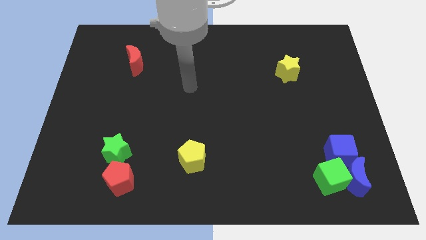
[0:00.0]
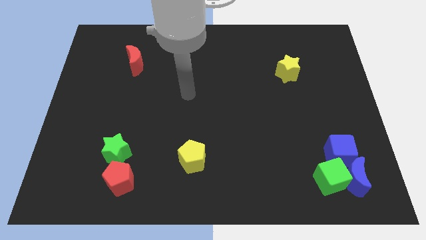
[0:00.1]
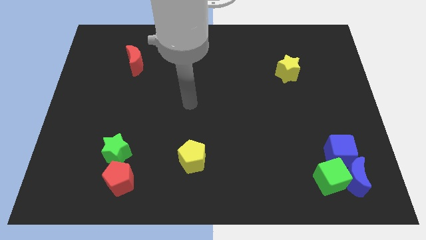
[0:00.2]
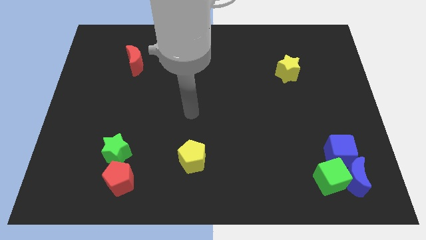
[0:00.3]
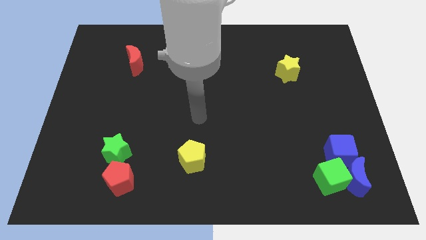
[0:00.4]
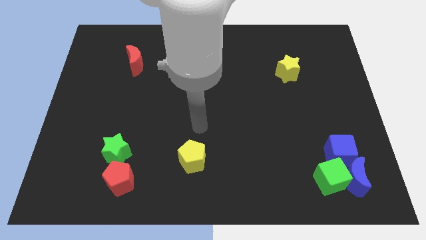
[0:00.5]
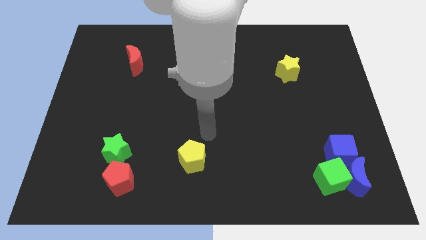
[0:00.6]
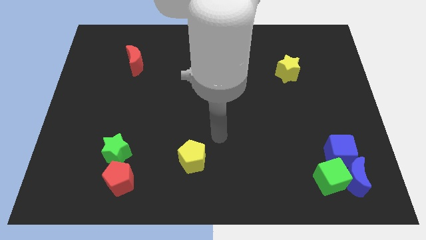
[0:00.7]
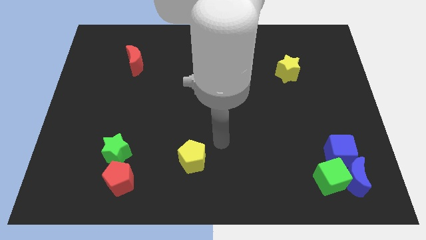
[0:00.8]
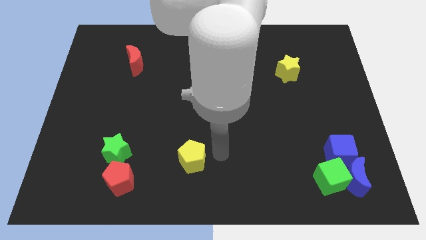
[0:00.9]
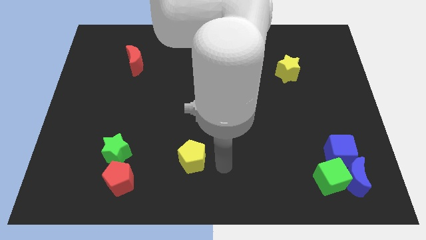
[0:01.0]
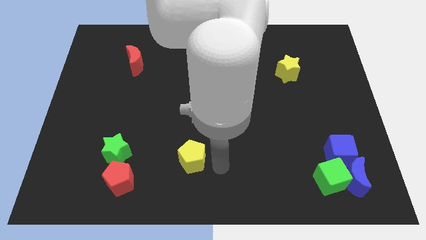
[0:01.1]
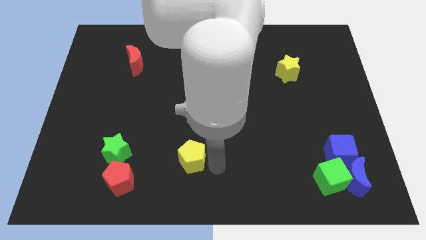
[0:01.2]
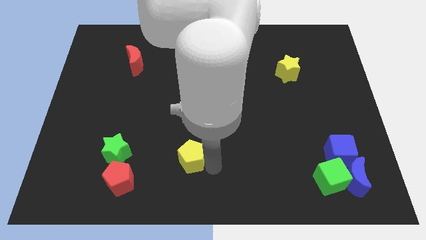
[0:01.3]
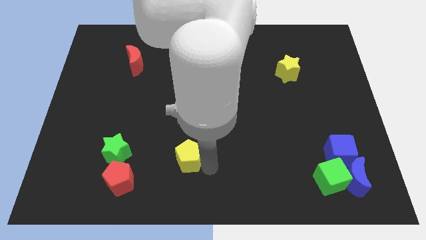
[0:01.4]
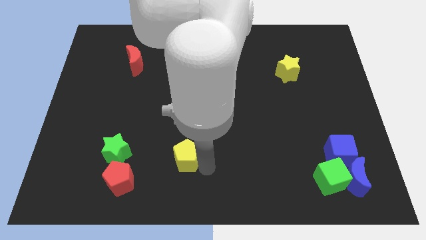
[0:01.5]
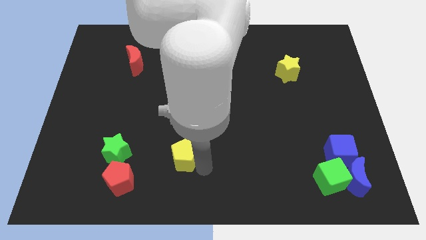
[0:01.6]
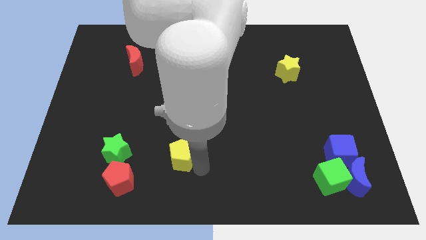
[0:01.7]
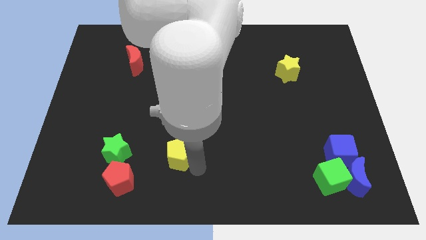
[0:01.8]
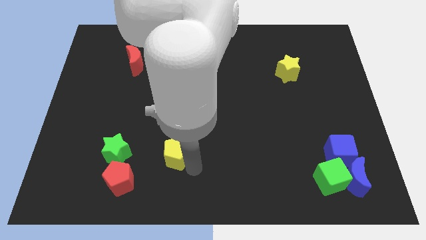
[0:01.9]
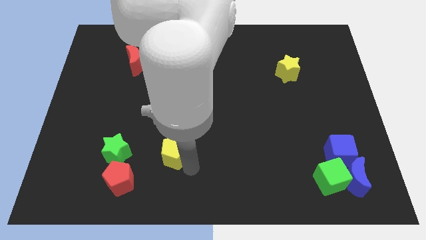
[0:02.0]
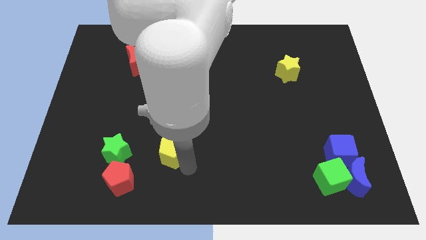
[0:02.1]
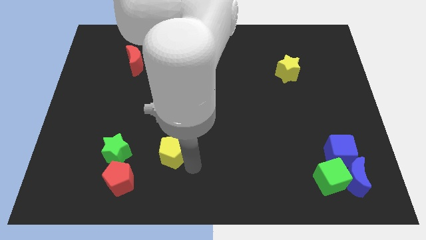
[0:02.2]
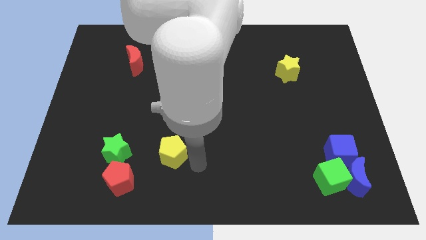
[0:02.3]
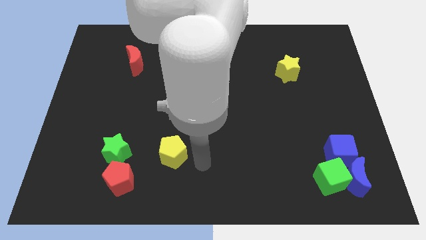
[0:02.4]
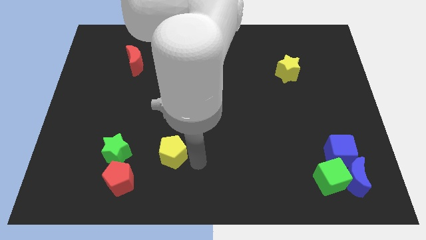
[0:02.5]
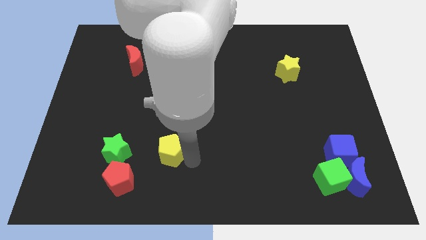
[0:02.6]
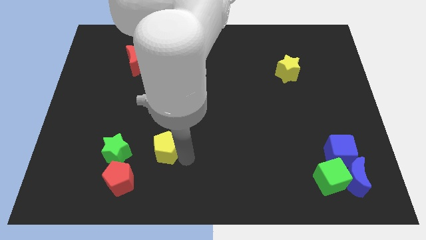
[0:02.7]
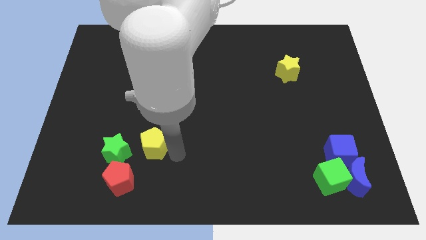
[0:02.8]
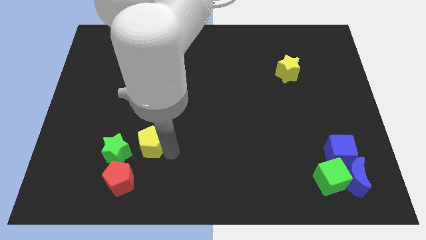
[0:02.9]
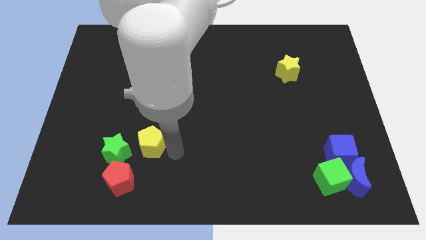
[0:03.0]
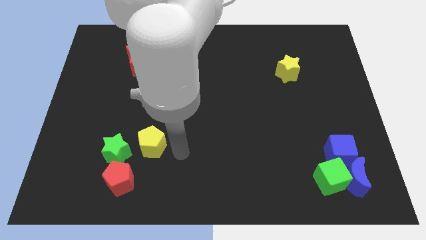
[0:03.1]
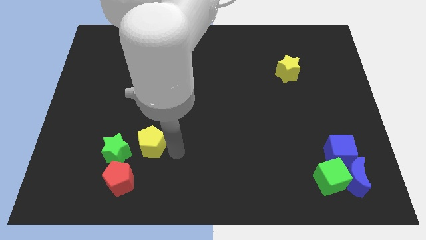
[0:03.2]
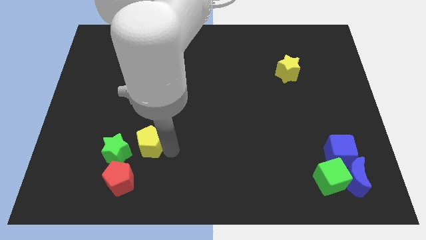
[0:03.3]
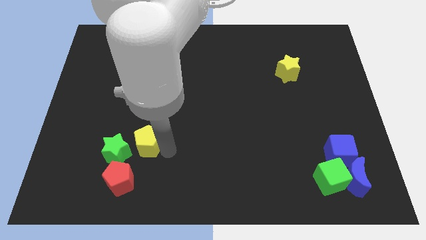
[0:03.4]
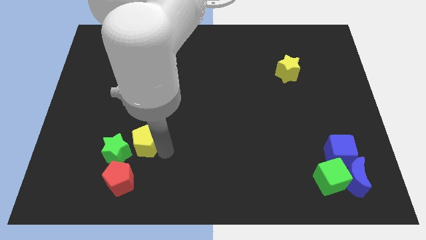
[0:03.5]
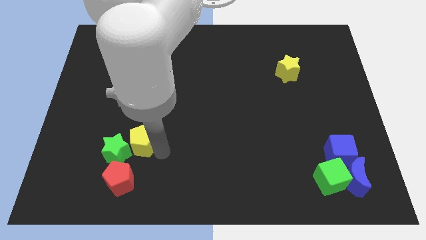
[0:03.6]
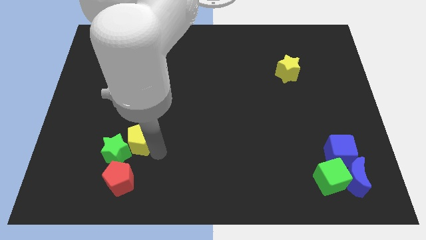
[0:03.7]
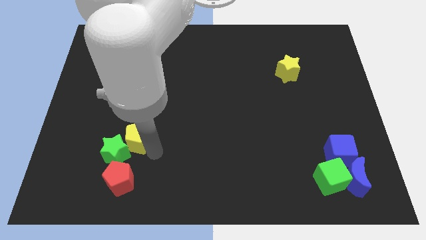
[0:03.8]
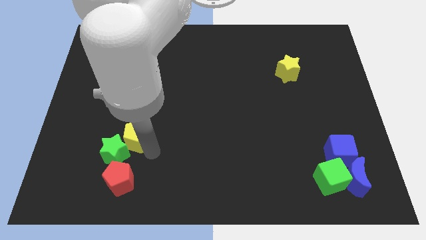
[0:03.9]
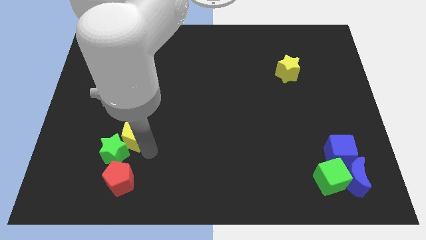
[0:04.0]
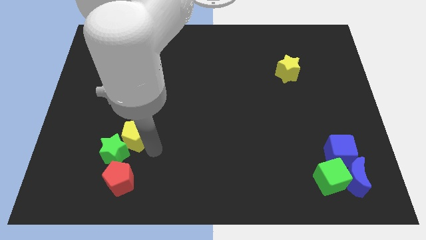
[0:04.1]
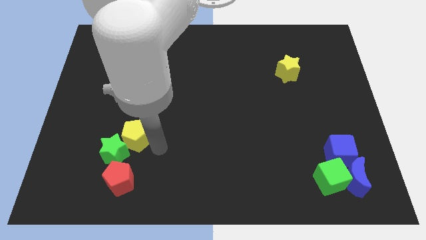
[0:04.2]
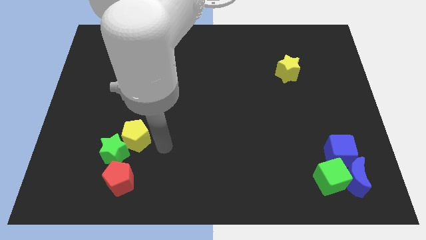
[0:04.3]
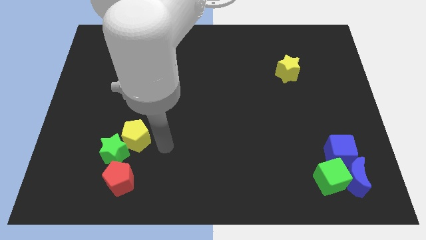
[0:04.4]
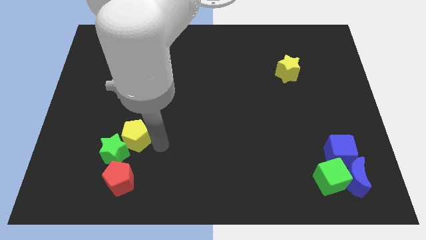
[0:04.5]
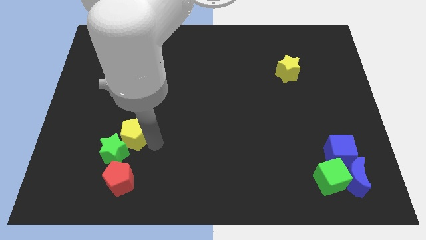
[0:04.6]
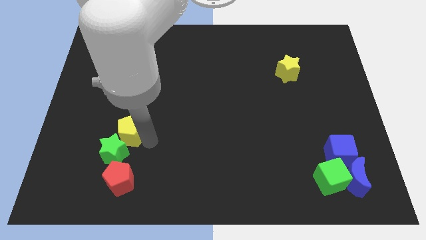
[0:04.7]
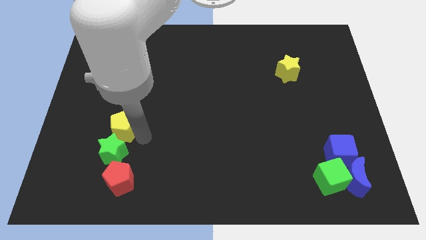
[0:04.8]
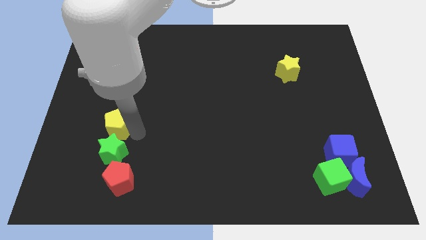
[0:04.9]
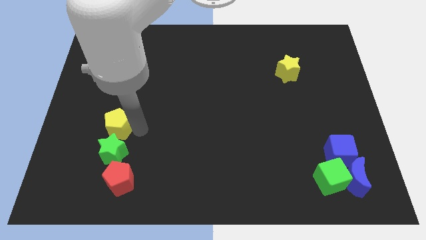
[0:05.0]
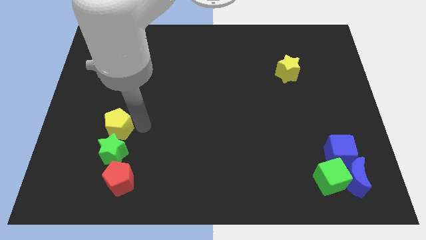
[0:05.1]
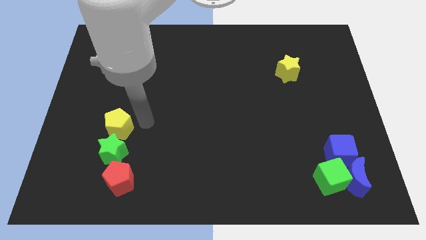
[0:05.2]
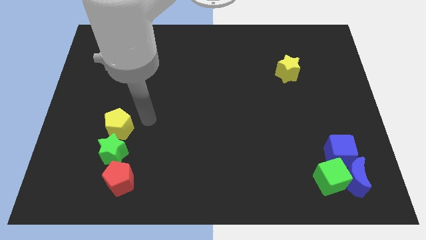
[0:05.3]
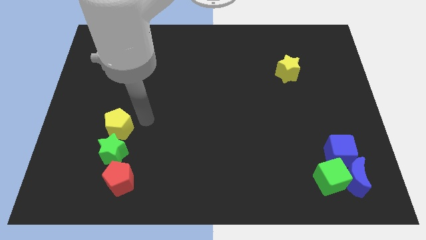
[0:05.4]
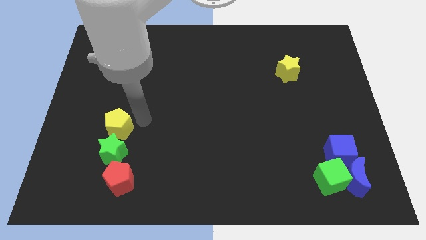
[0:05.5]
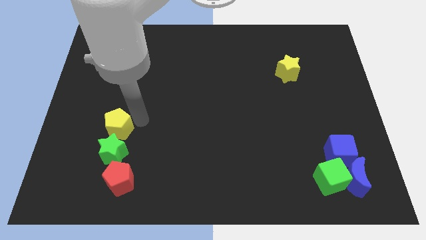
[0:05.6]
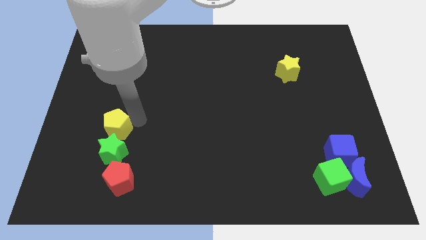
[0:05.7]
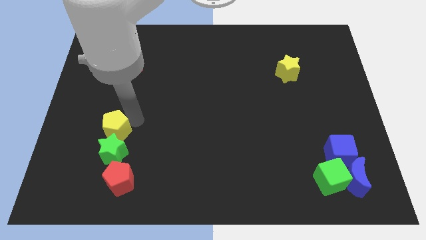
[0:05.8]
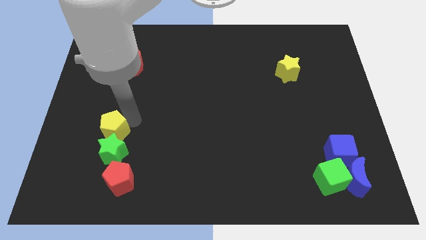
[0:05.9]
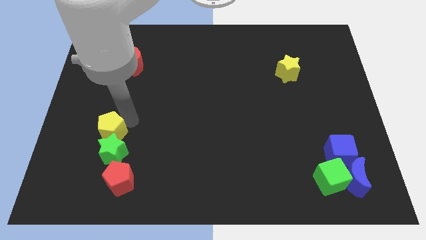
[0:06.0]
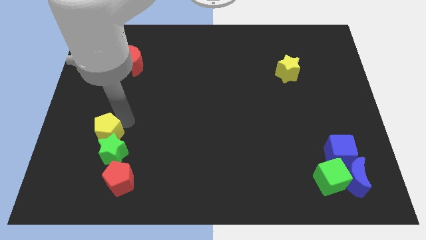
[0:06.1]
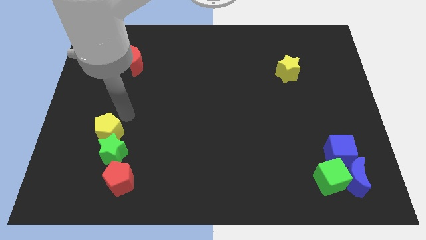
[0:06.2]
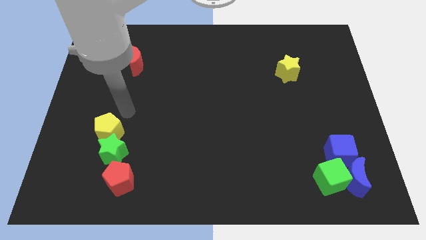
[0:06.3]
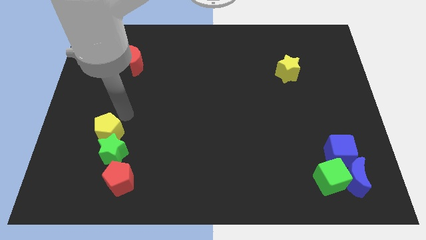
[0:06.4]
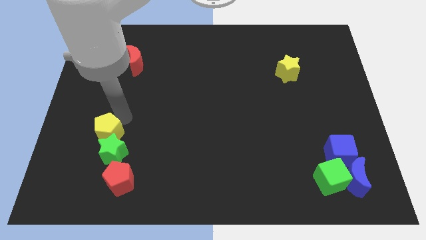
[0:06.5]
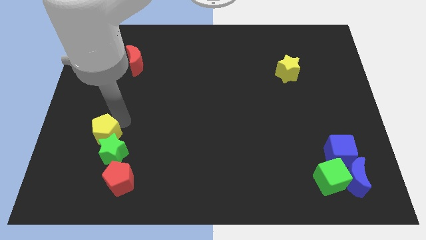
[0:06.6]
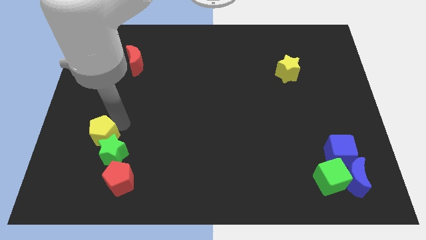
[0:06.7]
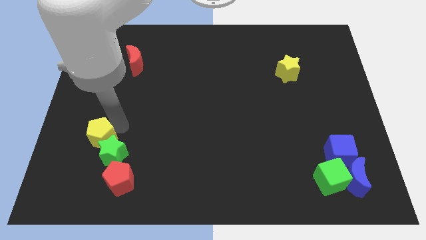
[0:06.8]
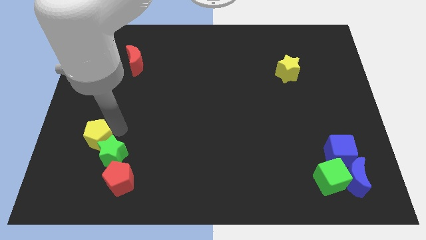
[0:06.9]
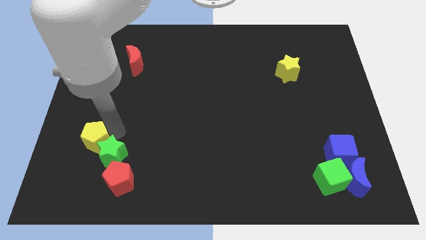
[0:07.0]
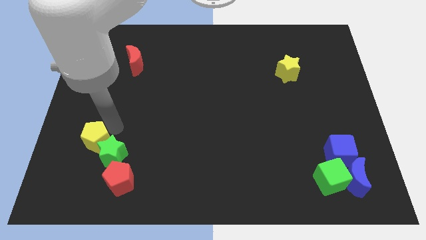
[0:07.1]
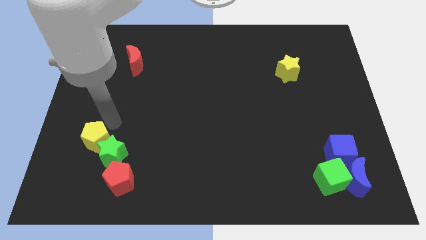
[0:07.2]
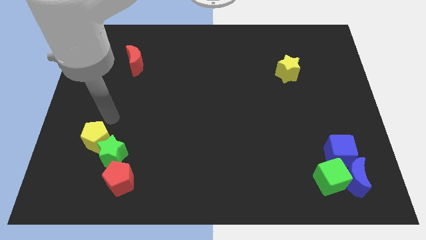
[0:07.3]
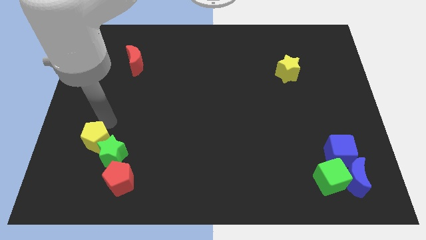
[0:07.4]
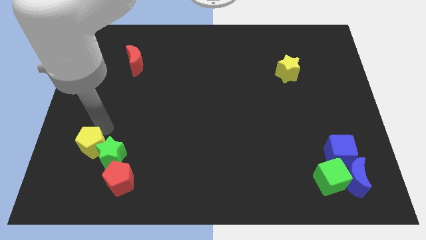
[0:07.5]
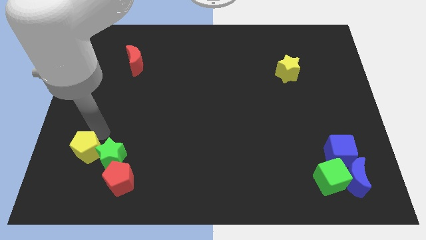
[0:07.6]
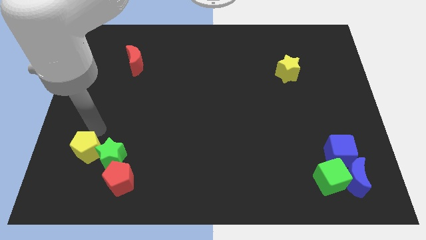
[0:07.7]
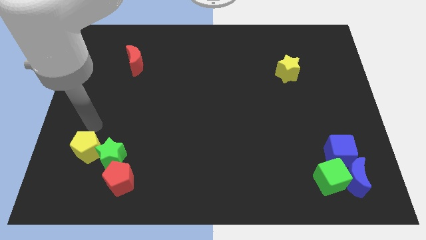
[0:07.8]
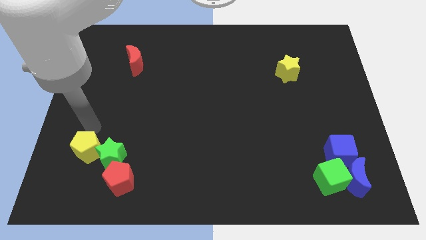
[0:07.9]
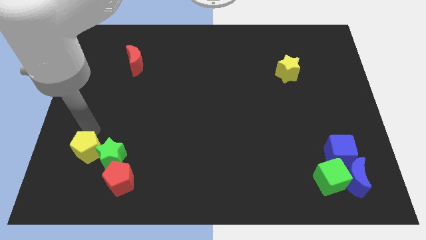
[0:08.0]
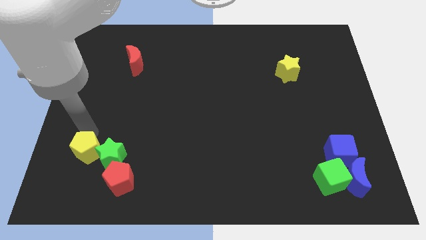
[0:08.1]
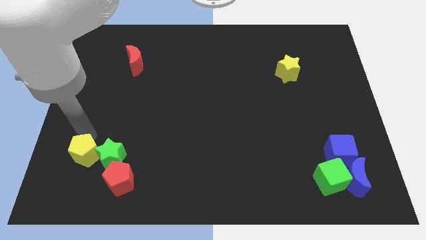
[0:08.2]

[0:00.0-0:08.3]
push the yellow pentagon to the bottom left of the green star
